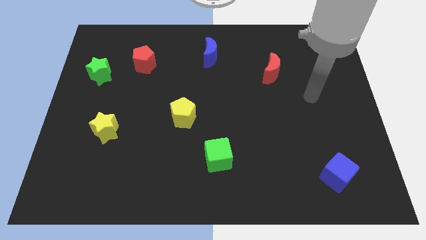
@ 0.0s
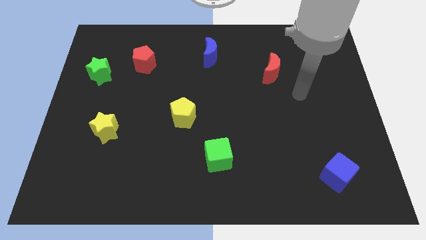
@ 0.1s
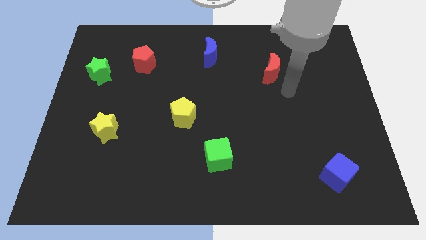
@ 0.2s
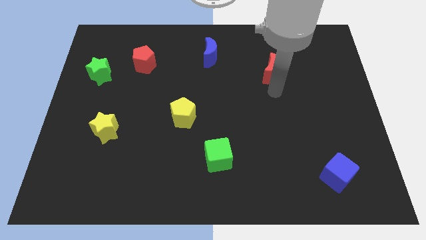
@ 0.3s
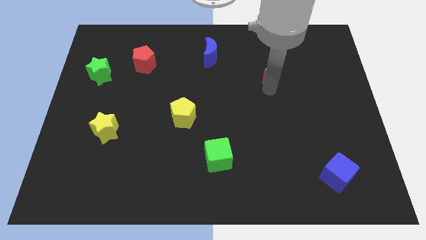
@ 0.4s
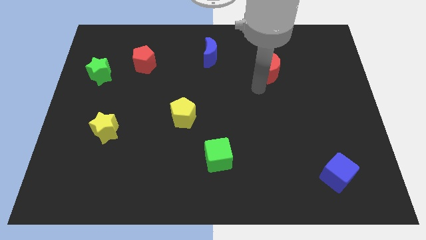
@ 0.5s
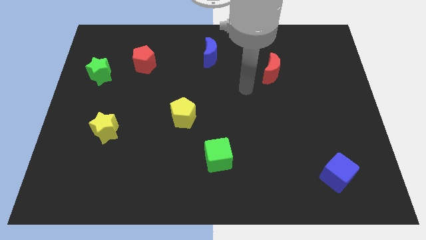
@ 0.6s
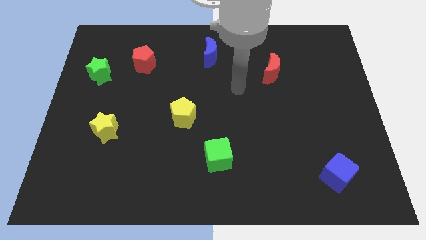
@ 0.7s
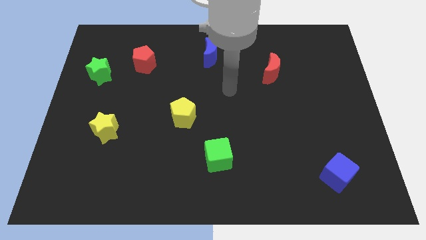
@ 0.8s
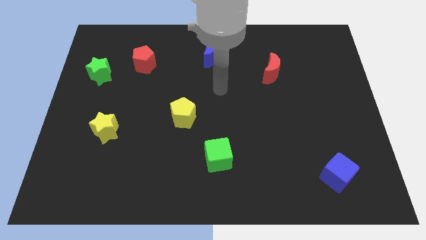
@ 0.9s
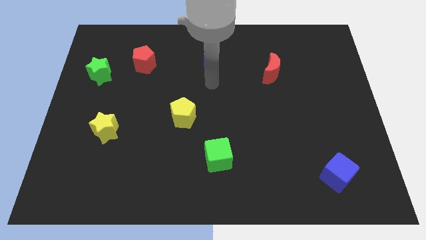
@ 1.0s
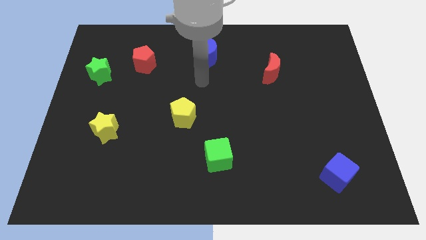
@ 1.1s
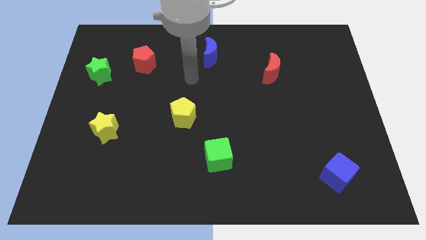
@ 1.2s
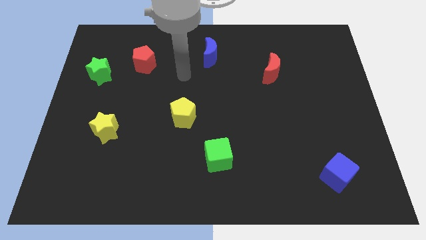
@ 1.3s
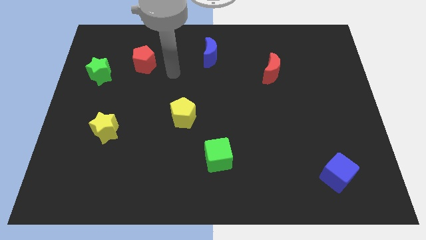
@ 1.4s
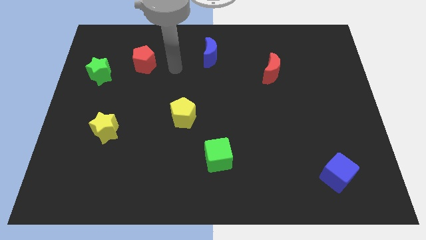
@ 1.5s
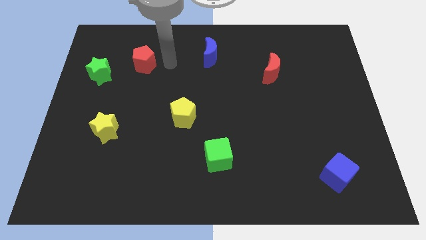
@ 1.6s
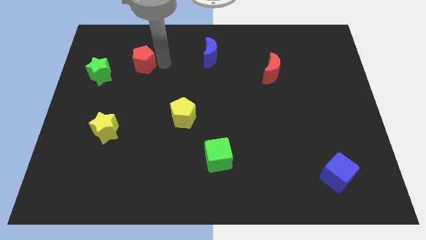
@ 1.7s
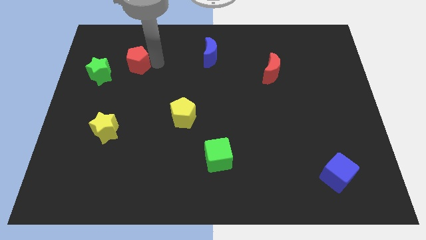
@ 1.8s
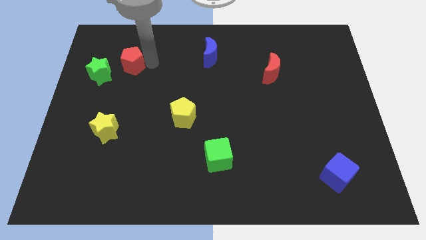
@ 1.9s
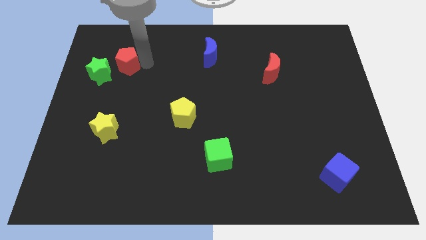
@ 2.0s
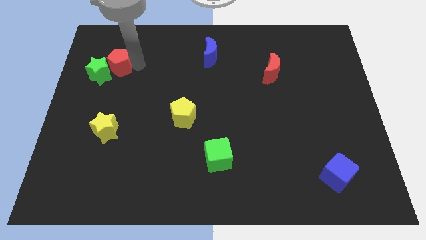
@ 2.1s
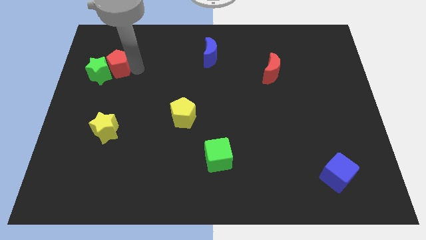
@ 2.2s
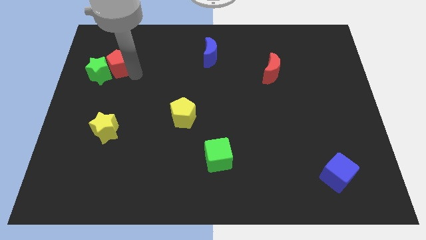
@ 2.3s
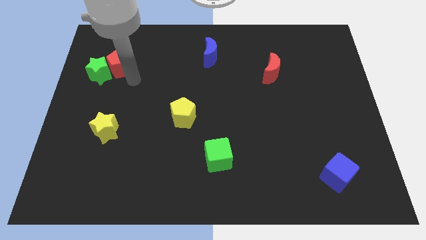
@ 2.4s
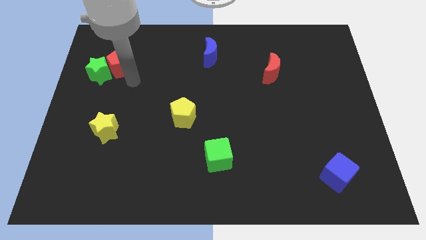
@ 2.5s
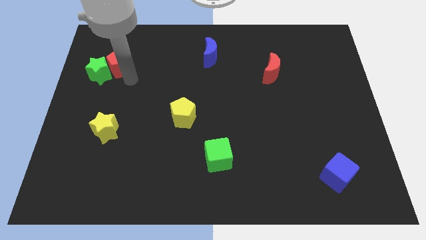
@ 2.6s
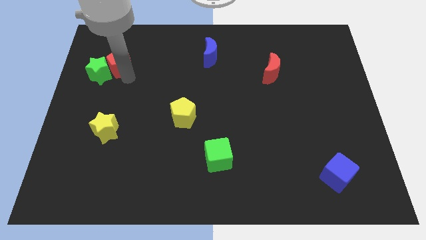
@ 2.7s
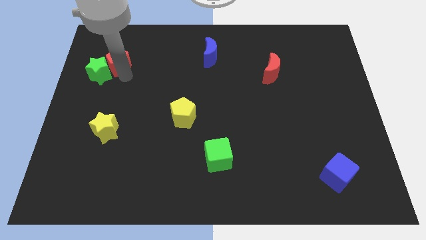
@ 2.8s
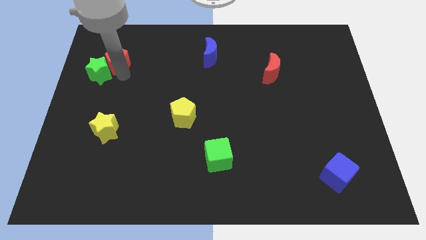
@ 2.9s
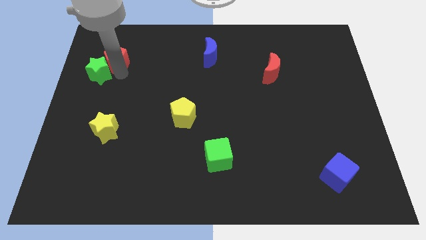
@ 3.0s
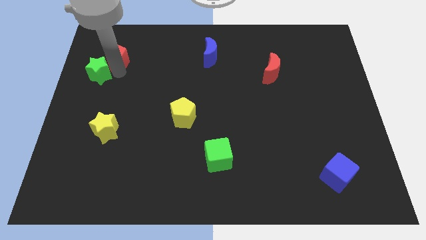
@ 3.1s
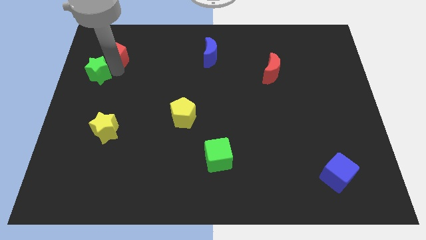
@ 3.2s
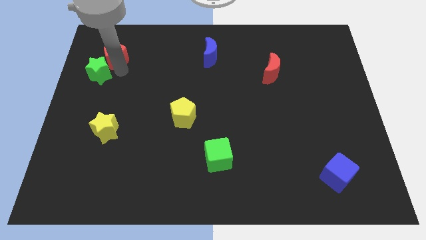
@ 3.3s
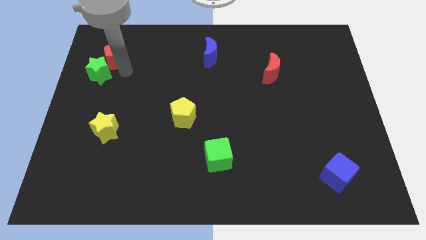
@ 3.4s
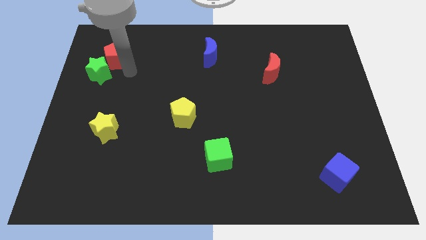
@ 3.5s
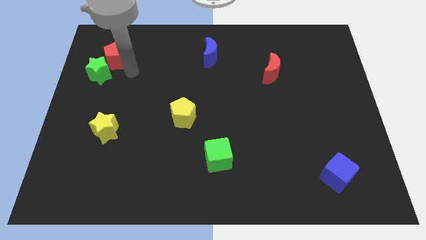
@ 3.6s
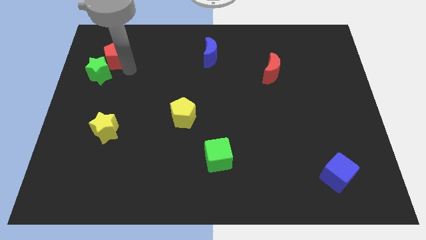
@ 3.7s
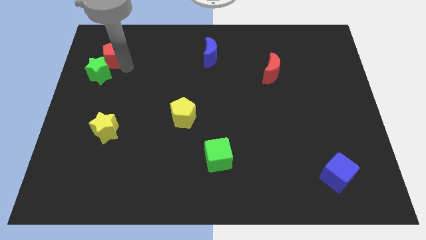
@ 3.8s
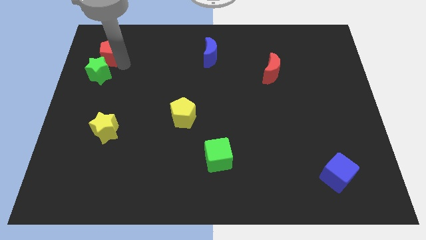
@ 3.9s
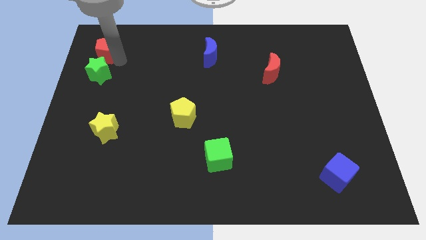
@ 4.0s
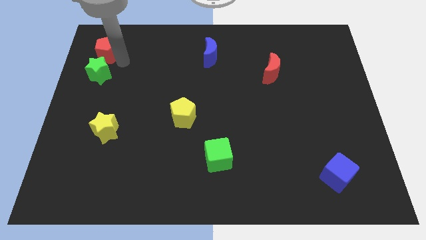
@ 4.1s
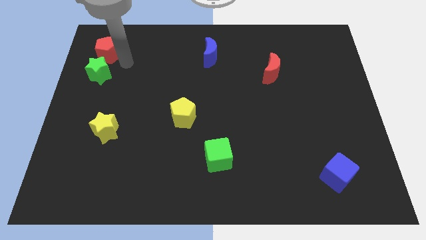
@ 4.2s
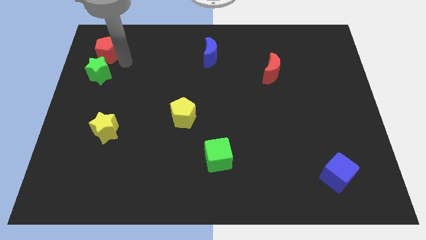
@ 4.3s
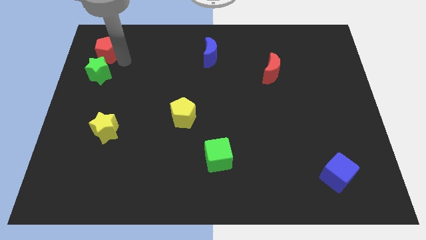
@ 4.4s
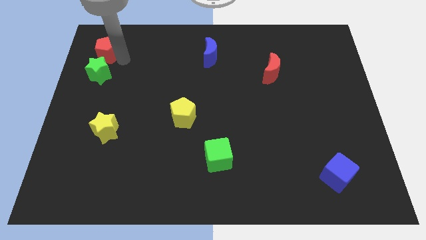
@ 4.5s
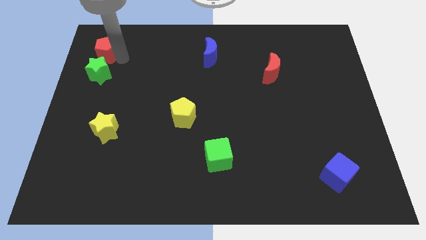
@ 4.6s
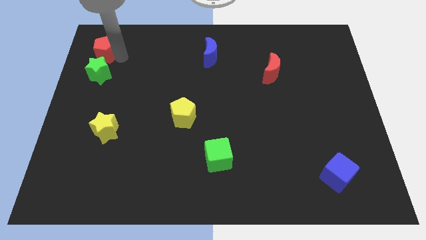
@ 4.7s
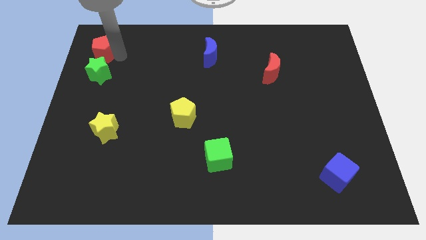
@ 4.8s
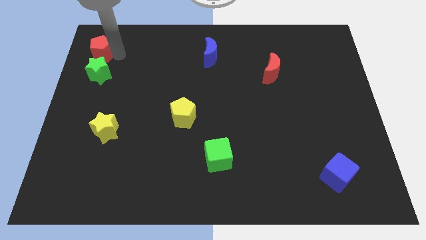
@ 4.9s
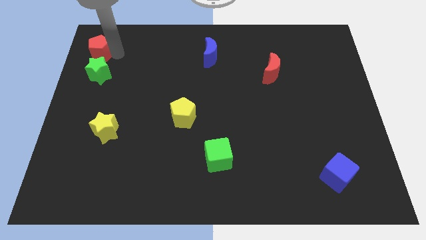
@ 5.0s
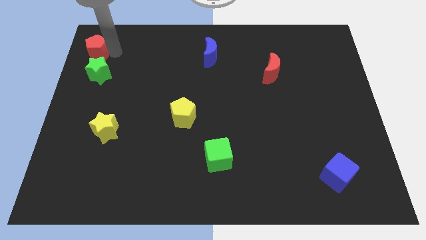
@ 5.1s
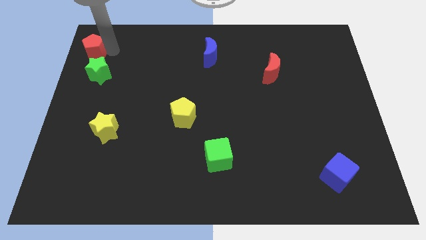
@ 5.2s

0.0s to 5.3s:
push the red pentagon to the top left of the board

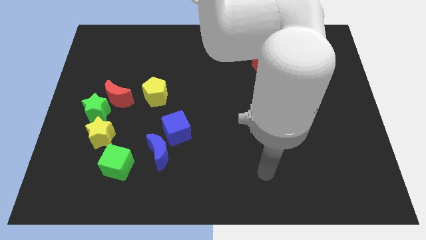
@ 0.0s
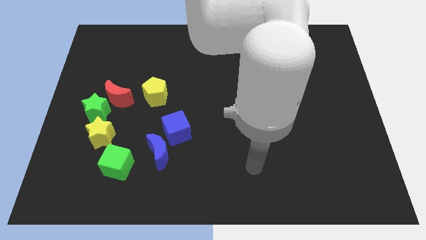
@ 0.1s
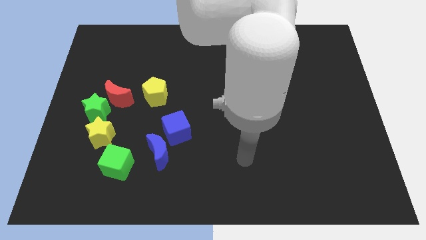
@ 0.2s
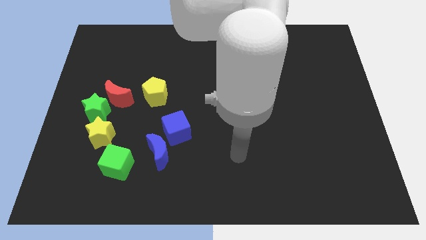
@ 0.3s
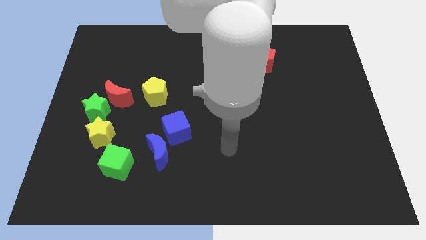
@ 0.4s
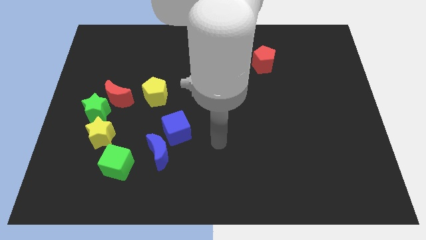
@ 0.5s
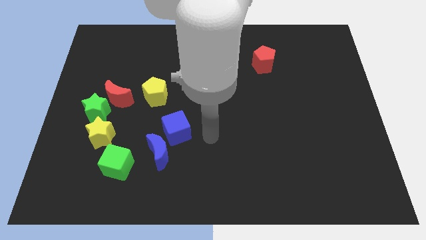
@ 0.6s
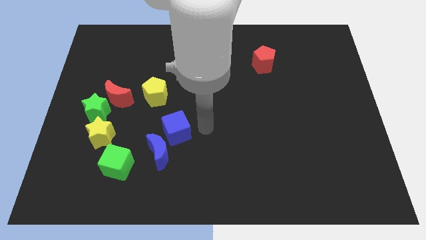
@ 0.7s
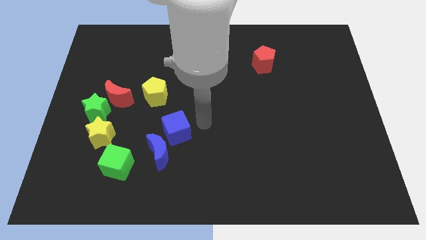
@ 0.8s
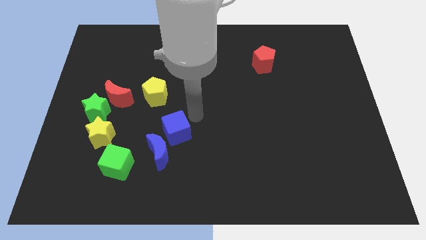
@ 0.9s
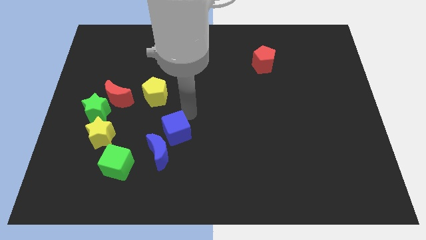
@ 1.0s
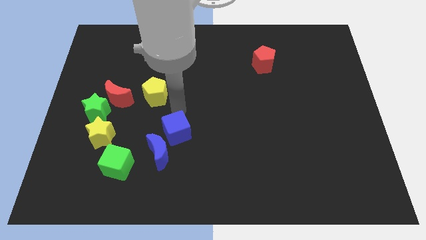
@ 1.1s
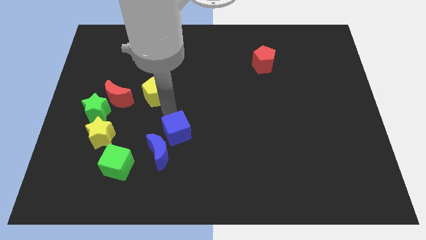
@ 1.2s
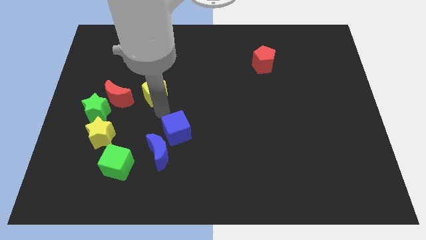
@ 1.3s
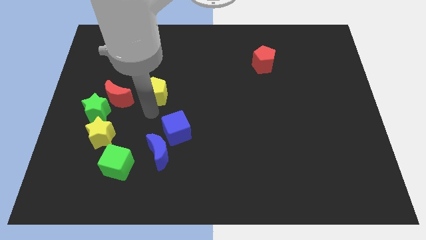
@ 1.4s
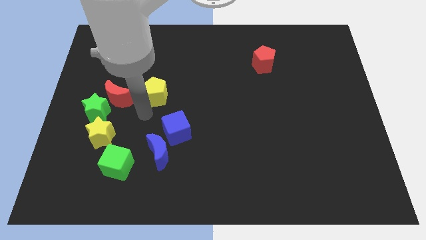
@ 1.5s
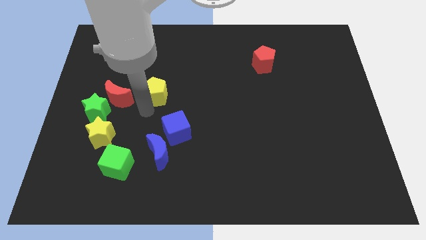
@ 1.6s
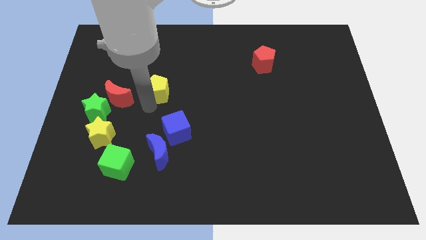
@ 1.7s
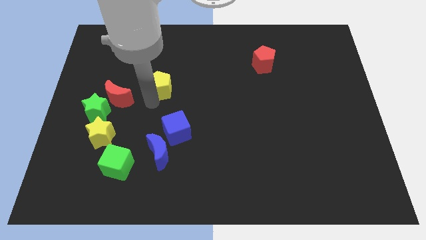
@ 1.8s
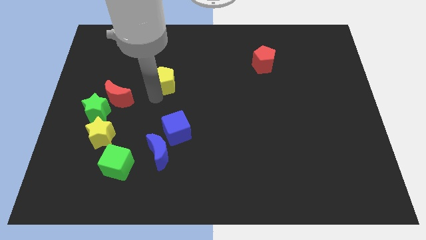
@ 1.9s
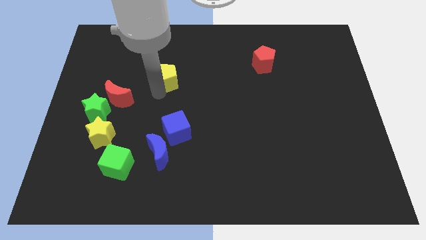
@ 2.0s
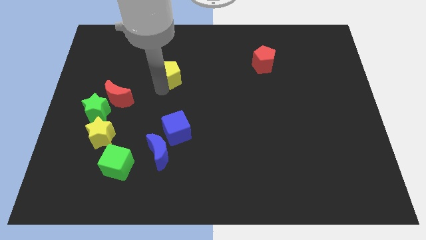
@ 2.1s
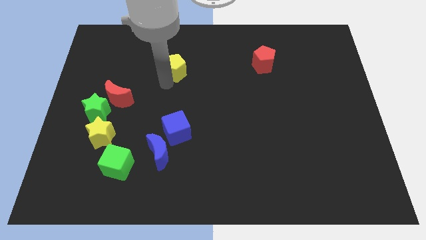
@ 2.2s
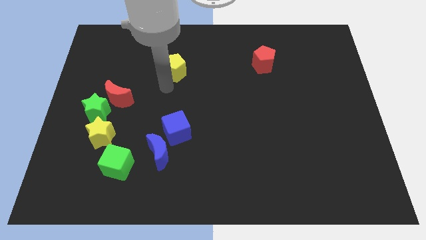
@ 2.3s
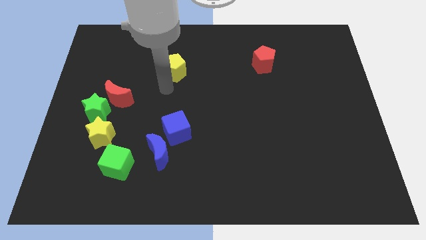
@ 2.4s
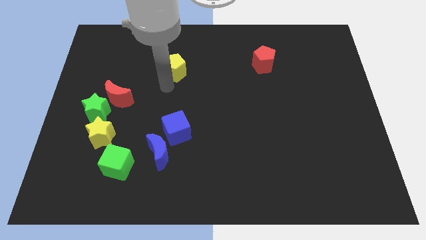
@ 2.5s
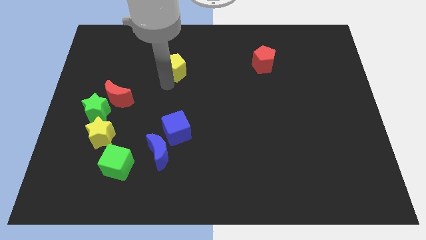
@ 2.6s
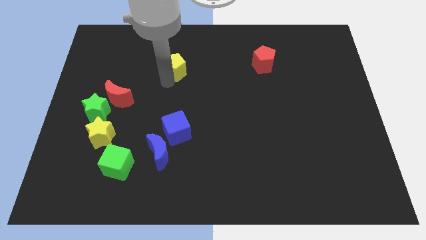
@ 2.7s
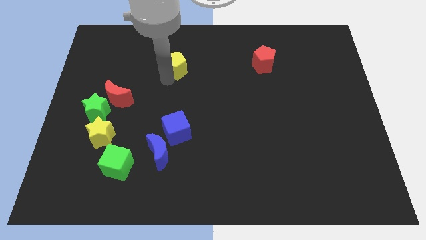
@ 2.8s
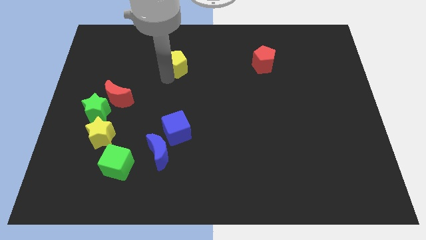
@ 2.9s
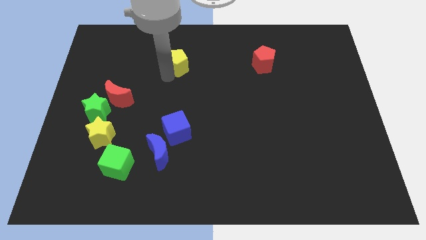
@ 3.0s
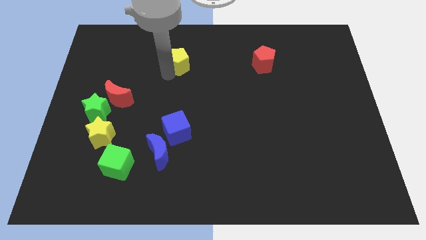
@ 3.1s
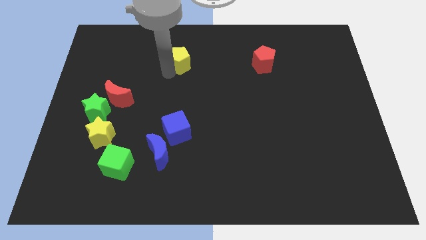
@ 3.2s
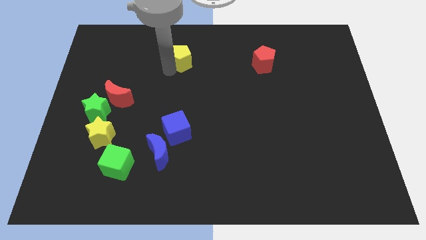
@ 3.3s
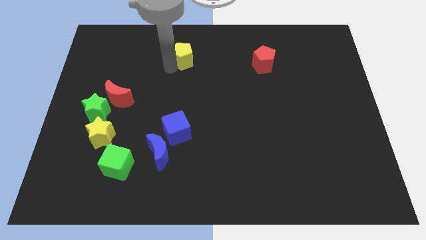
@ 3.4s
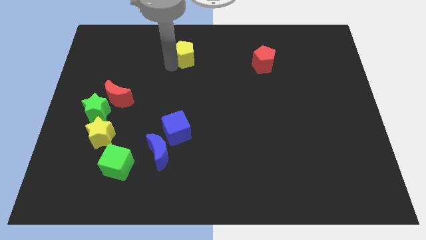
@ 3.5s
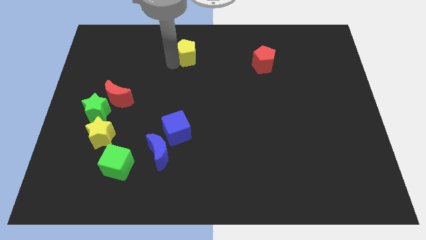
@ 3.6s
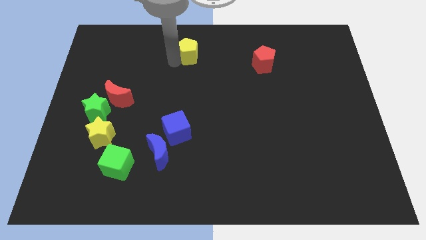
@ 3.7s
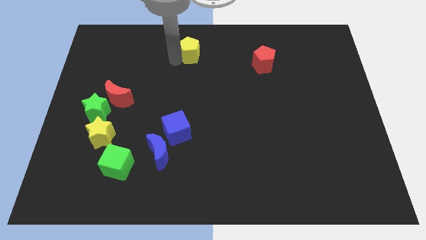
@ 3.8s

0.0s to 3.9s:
slide the yellow pentagon to the top
